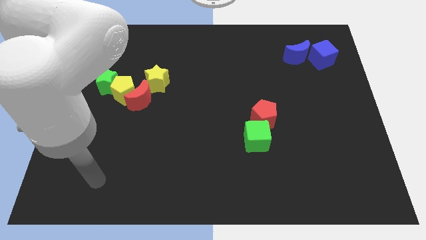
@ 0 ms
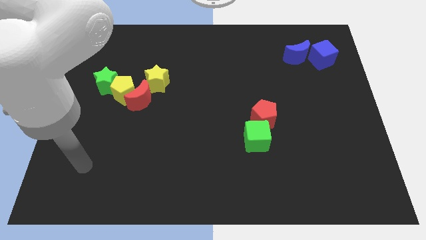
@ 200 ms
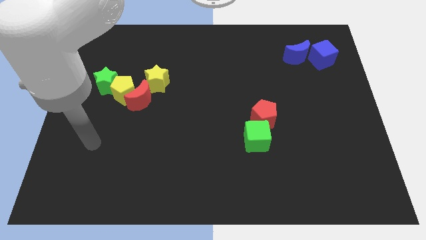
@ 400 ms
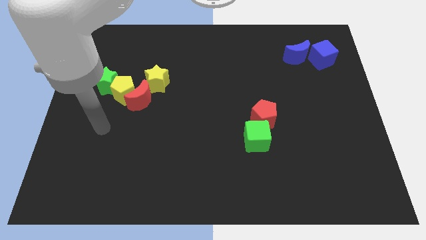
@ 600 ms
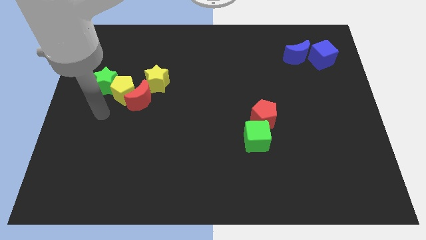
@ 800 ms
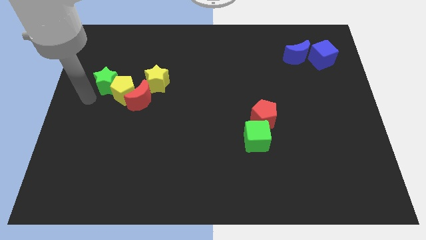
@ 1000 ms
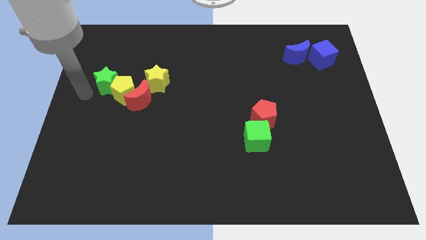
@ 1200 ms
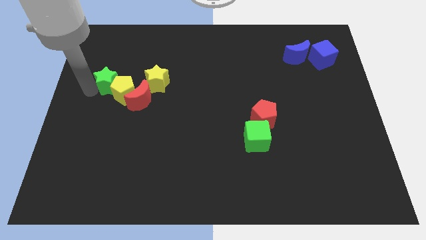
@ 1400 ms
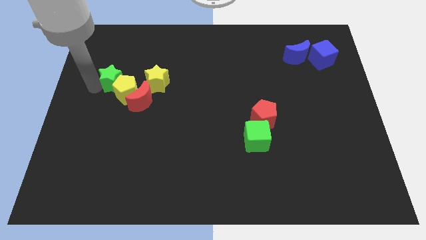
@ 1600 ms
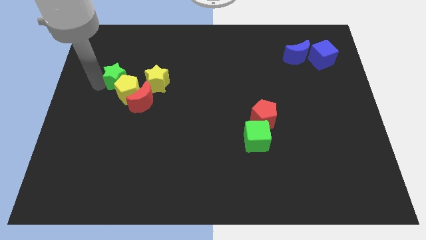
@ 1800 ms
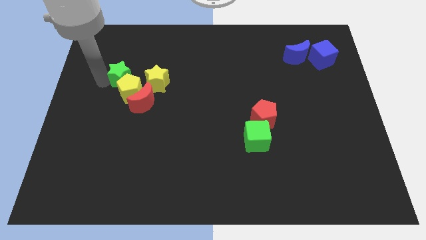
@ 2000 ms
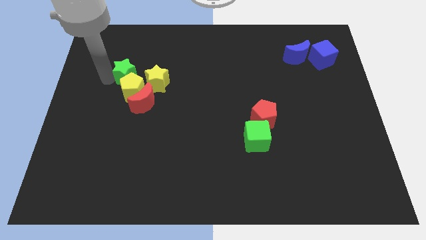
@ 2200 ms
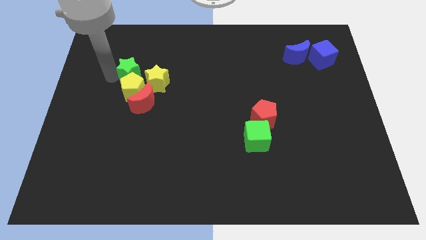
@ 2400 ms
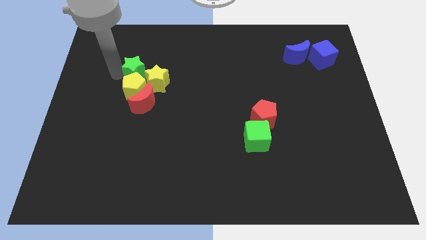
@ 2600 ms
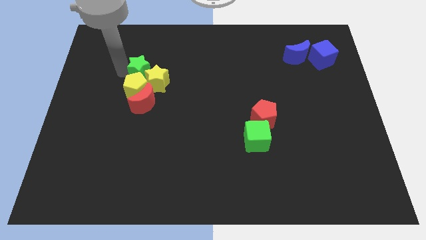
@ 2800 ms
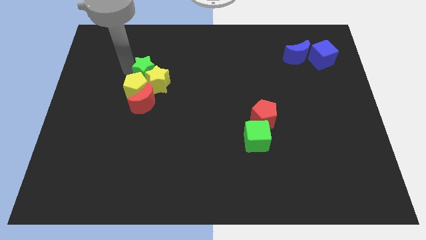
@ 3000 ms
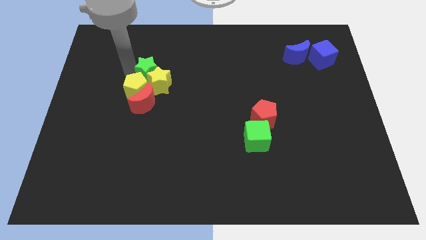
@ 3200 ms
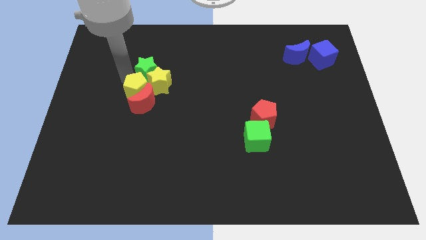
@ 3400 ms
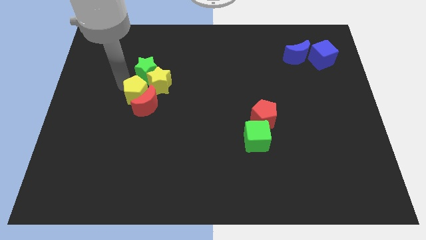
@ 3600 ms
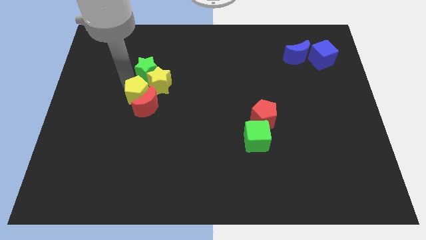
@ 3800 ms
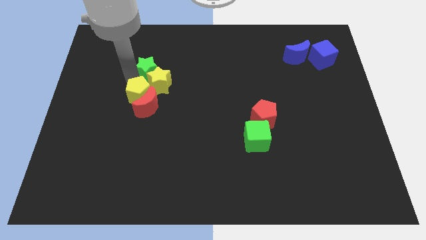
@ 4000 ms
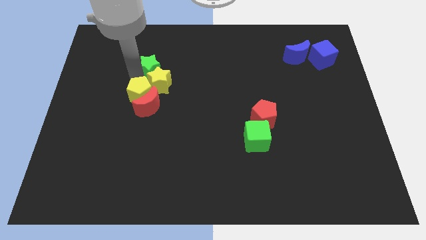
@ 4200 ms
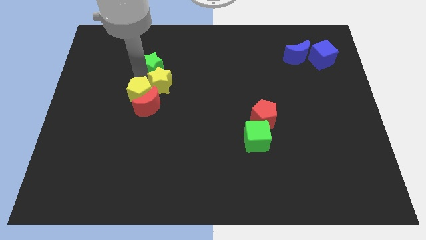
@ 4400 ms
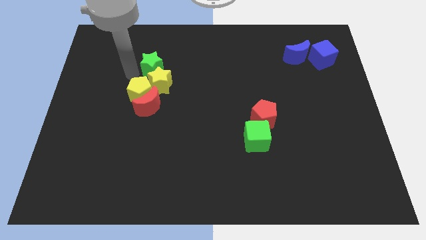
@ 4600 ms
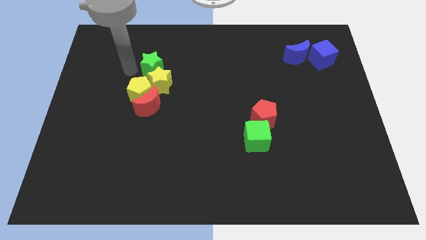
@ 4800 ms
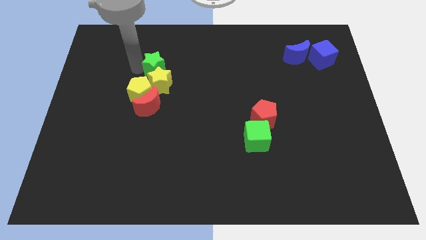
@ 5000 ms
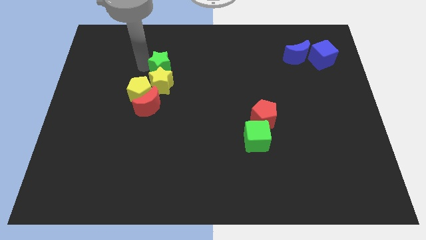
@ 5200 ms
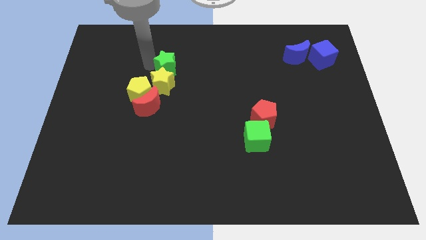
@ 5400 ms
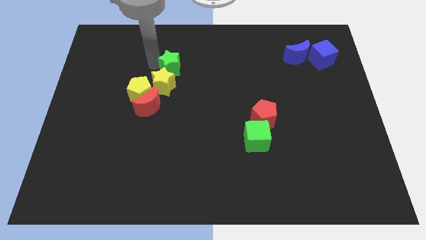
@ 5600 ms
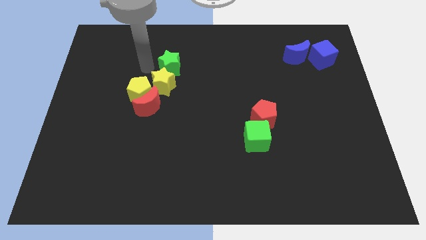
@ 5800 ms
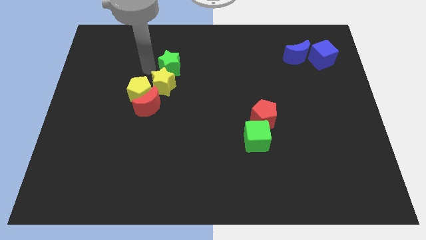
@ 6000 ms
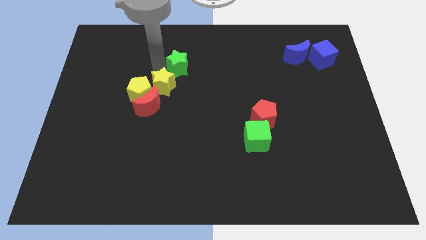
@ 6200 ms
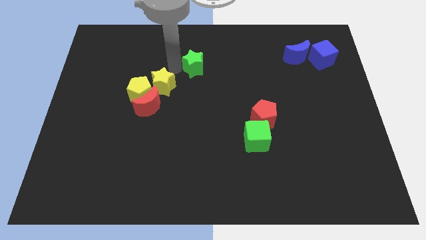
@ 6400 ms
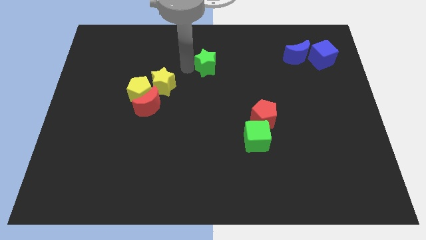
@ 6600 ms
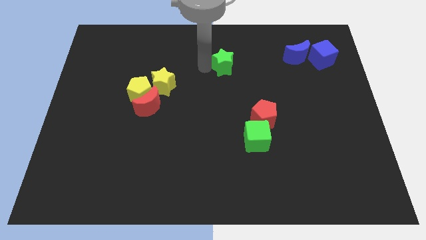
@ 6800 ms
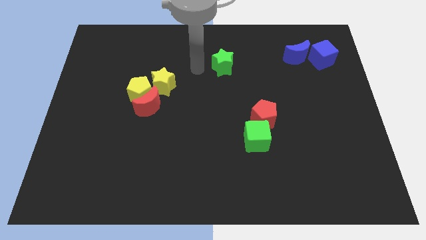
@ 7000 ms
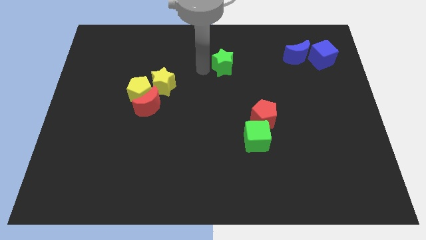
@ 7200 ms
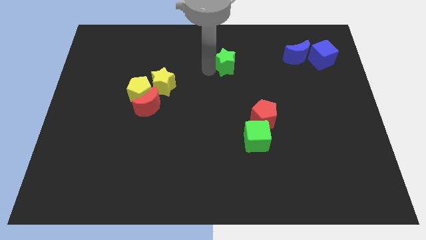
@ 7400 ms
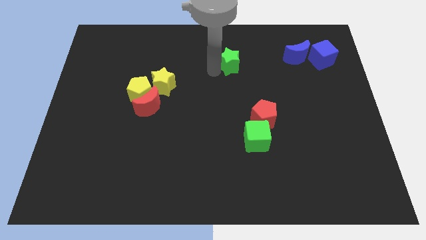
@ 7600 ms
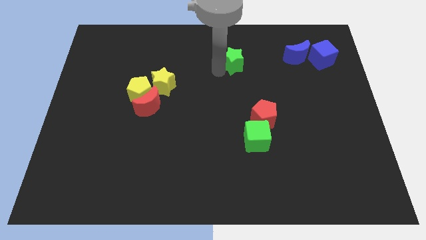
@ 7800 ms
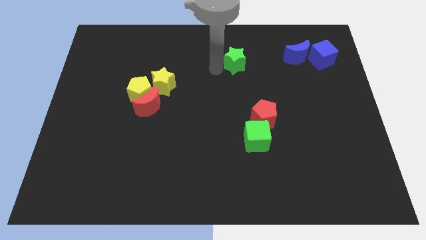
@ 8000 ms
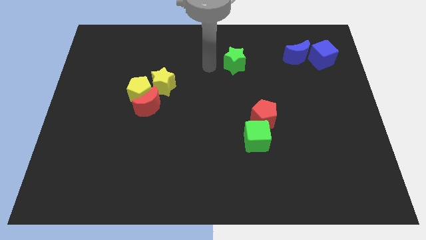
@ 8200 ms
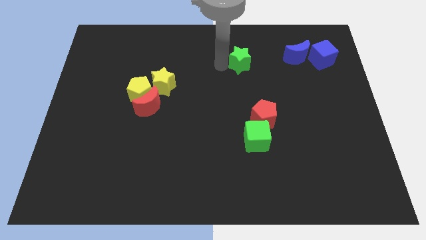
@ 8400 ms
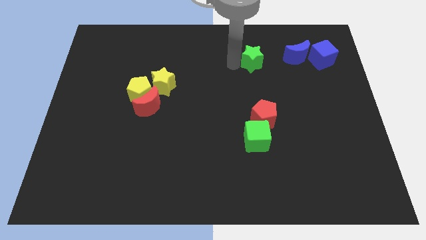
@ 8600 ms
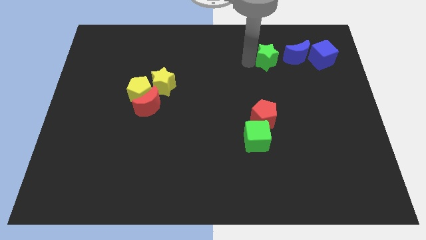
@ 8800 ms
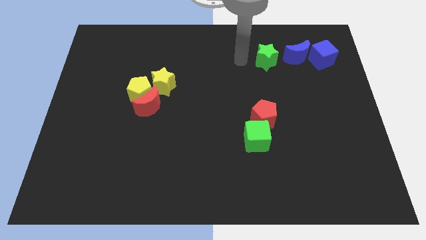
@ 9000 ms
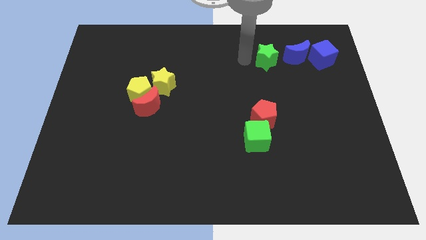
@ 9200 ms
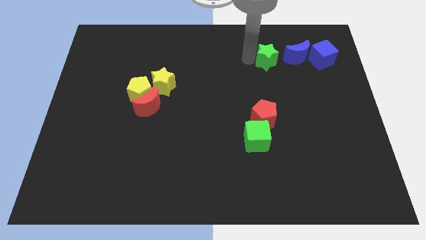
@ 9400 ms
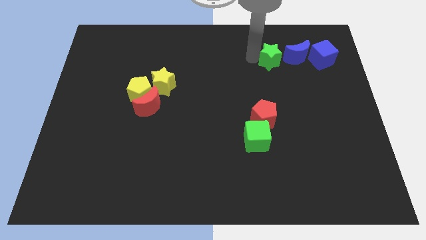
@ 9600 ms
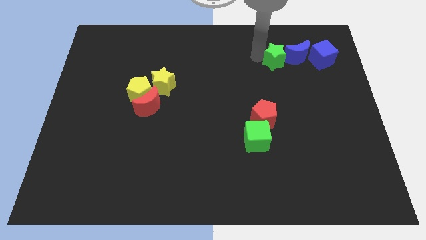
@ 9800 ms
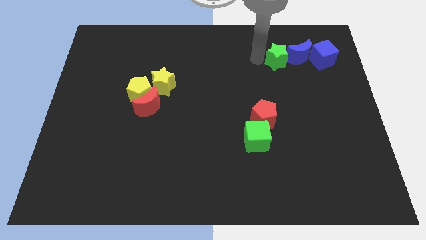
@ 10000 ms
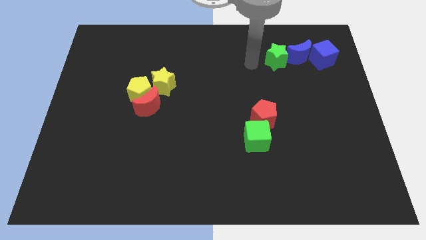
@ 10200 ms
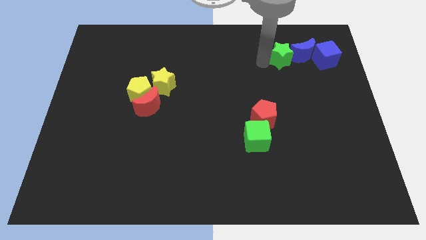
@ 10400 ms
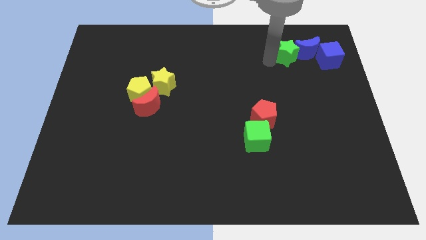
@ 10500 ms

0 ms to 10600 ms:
push the green star to the blue moon

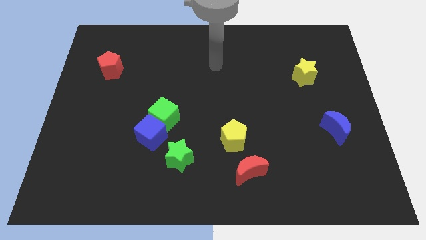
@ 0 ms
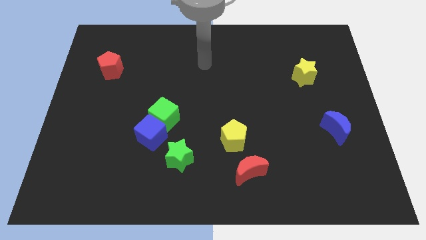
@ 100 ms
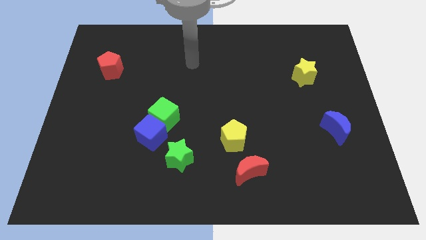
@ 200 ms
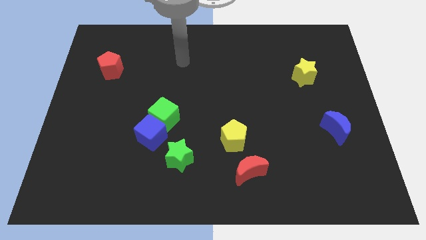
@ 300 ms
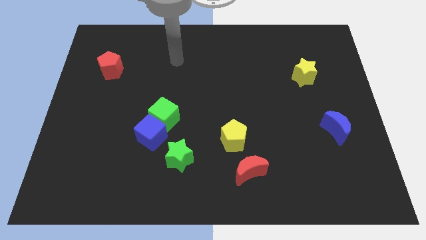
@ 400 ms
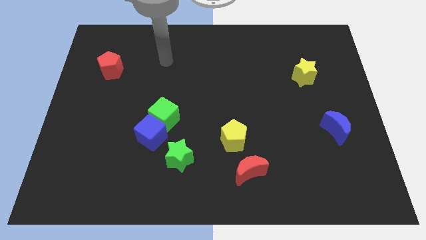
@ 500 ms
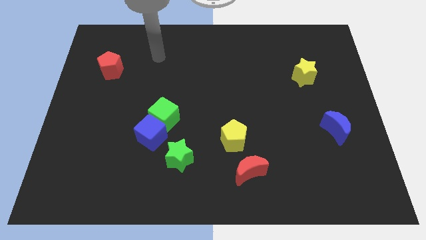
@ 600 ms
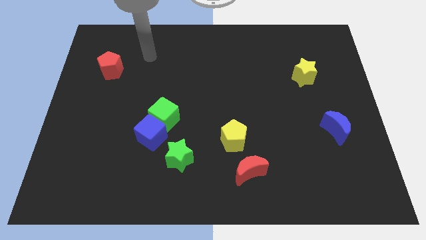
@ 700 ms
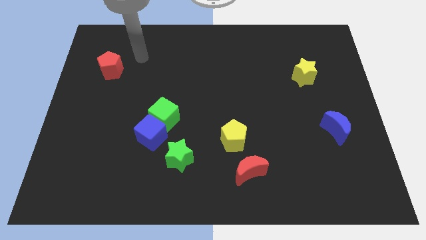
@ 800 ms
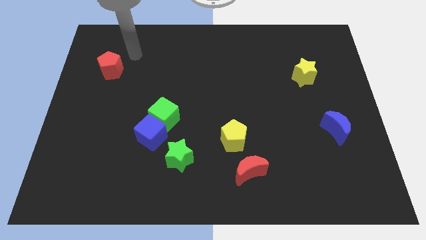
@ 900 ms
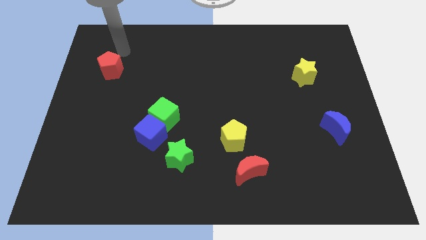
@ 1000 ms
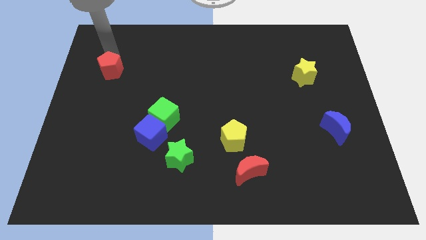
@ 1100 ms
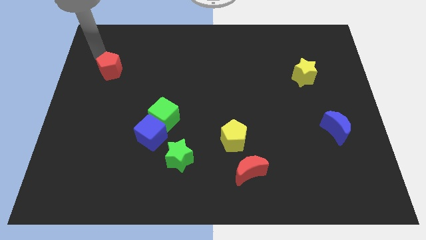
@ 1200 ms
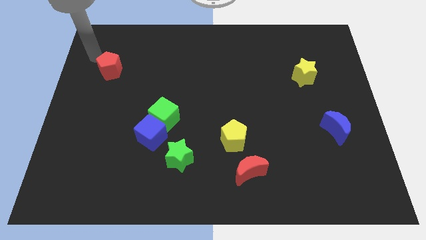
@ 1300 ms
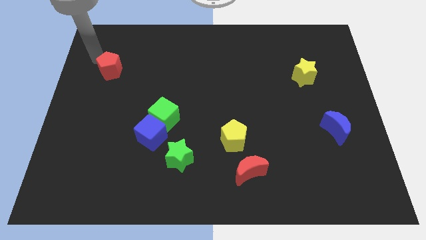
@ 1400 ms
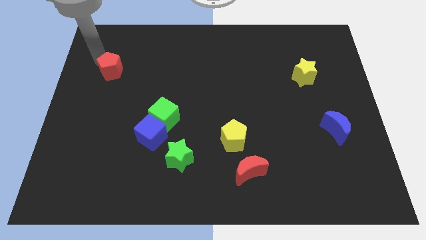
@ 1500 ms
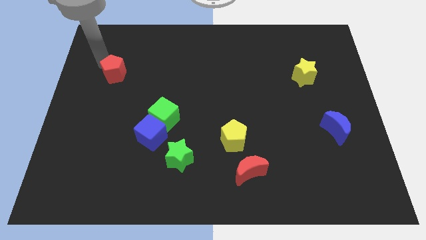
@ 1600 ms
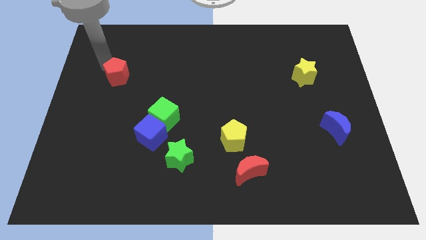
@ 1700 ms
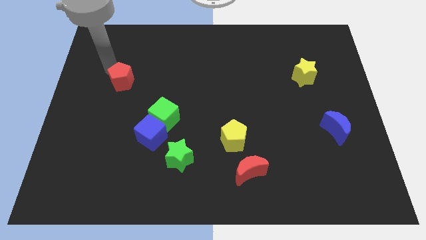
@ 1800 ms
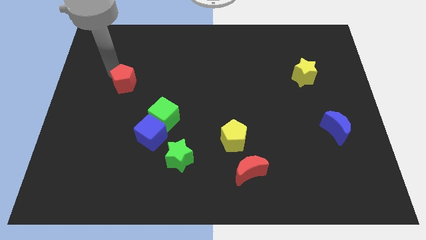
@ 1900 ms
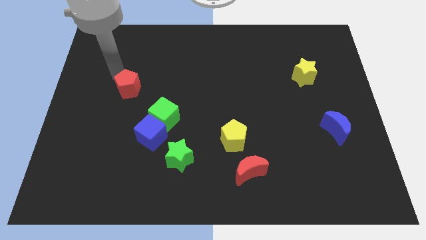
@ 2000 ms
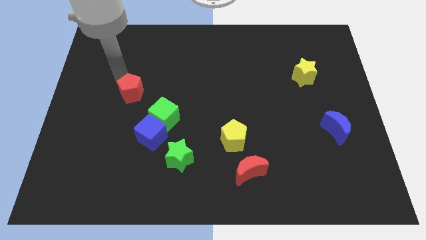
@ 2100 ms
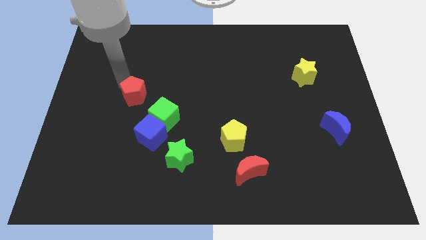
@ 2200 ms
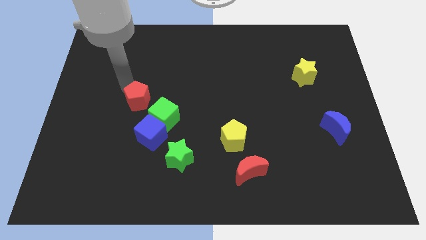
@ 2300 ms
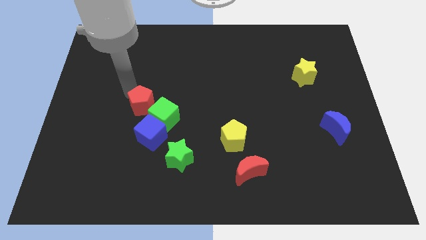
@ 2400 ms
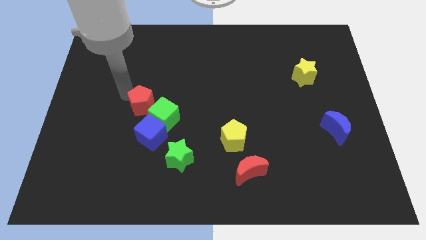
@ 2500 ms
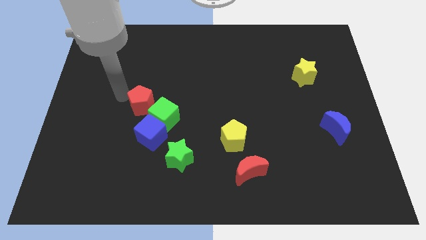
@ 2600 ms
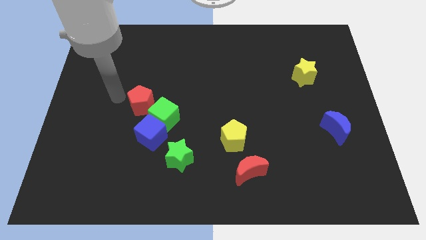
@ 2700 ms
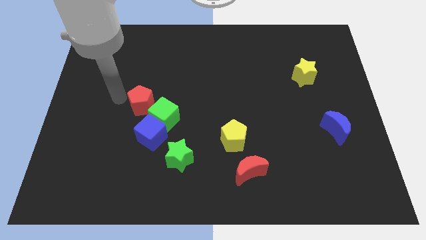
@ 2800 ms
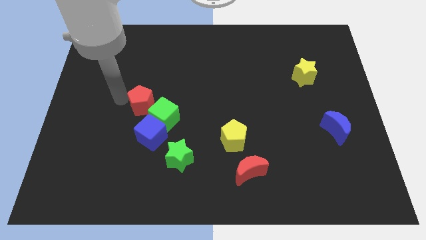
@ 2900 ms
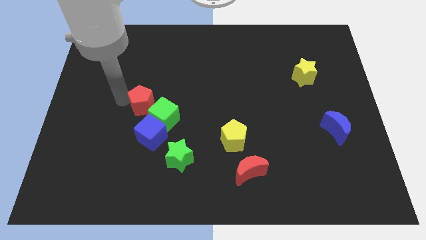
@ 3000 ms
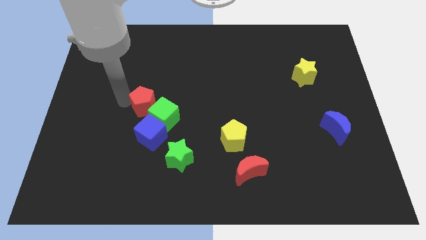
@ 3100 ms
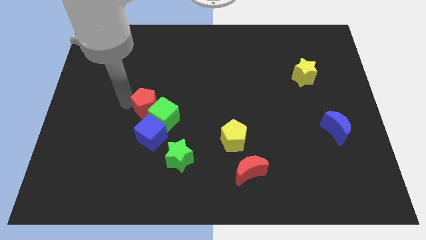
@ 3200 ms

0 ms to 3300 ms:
slide the red pentagon next to the green cube
